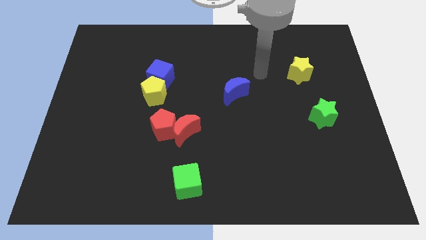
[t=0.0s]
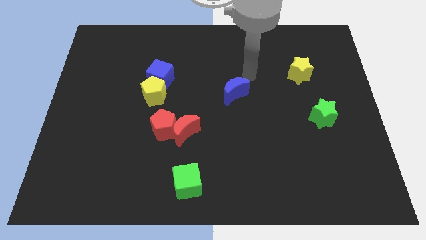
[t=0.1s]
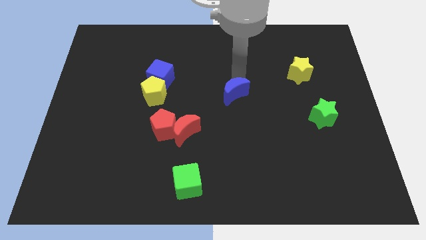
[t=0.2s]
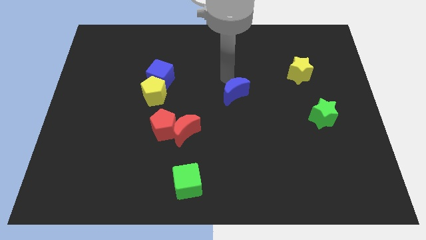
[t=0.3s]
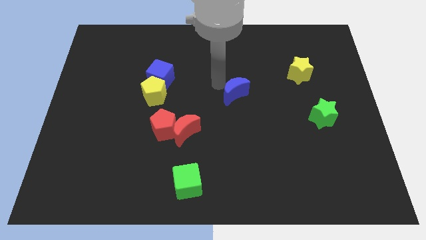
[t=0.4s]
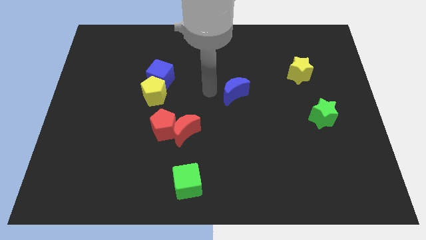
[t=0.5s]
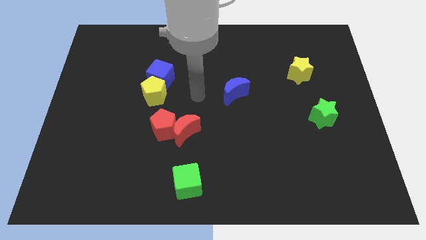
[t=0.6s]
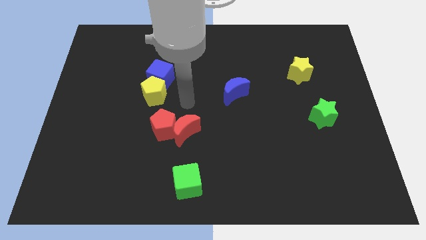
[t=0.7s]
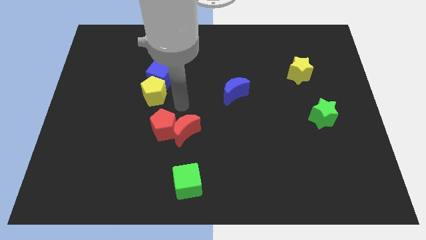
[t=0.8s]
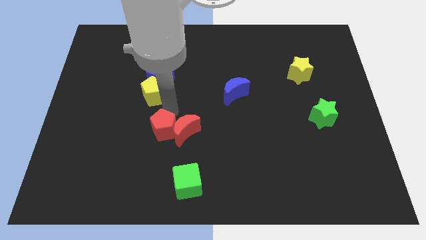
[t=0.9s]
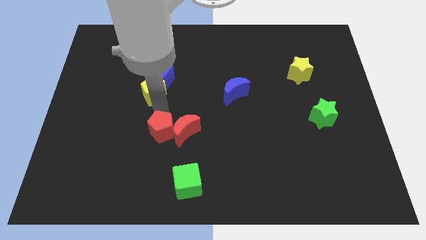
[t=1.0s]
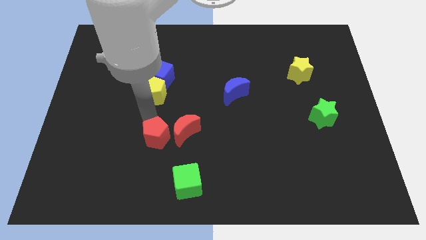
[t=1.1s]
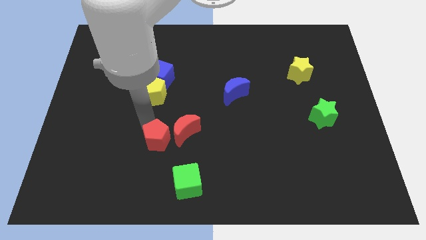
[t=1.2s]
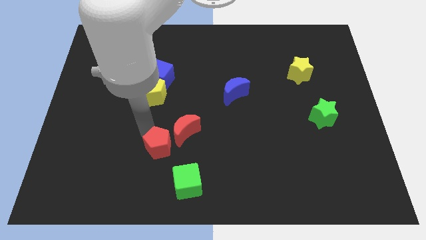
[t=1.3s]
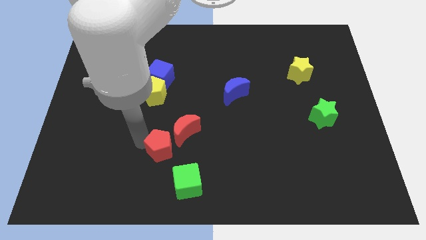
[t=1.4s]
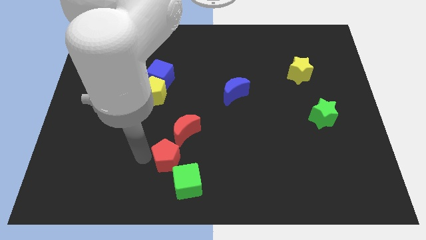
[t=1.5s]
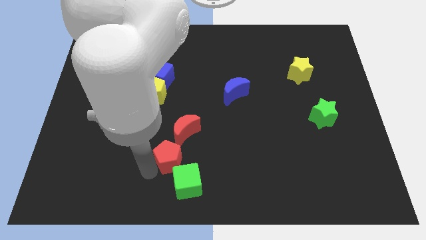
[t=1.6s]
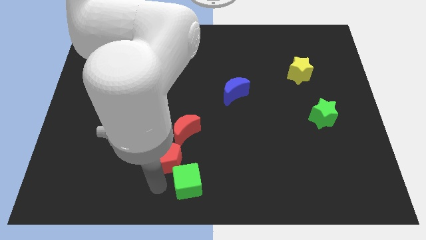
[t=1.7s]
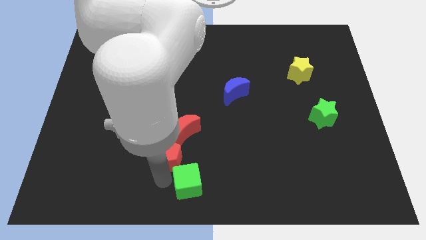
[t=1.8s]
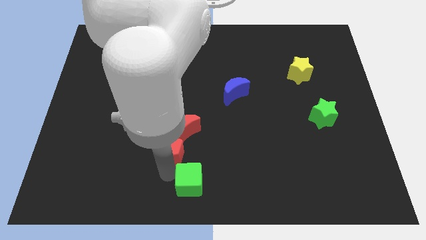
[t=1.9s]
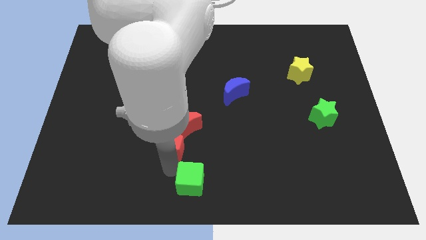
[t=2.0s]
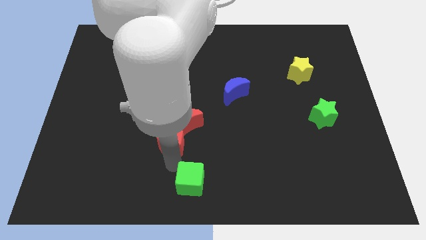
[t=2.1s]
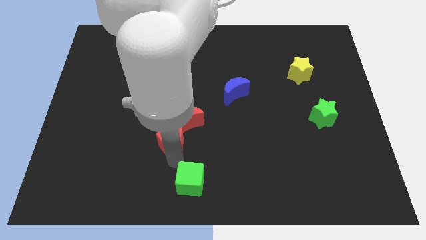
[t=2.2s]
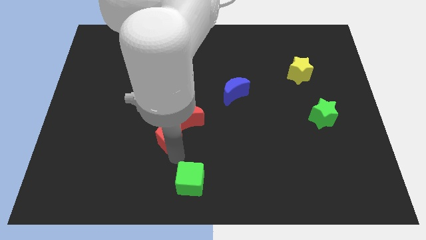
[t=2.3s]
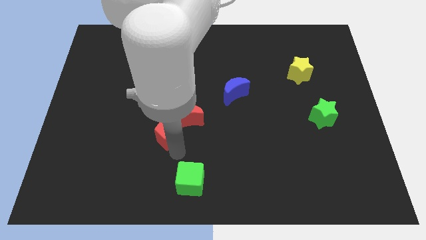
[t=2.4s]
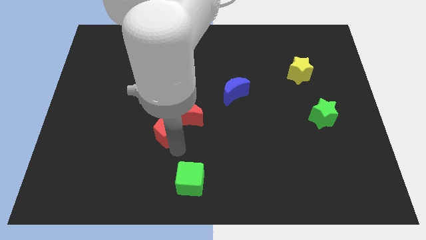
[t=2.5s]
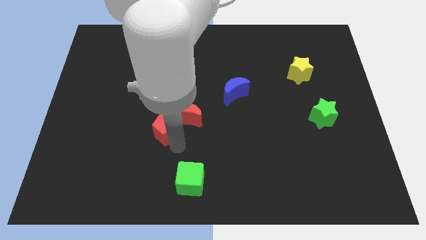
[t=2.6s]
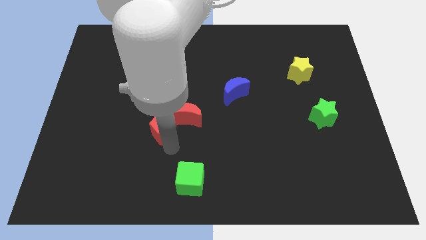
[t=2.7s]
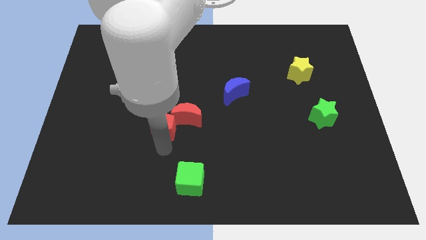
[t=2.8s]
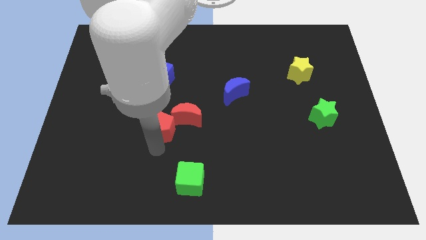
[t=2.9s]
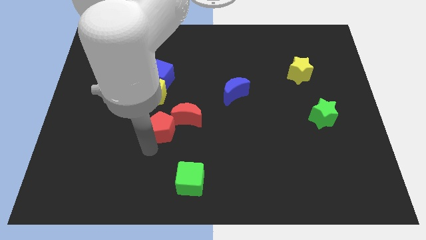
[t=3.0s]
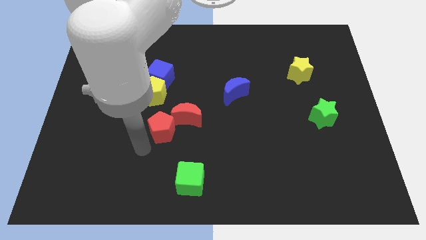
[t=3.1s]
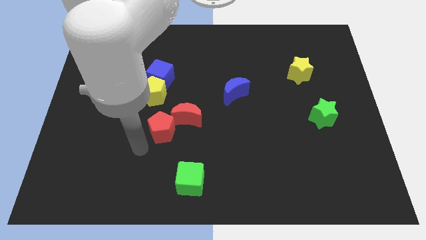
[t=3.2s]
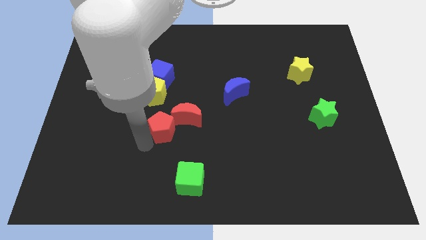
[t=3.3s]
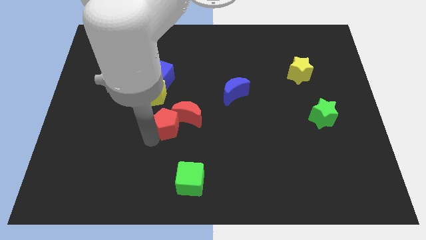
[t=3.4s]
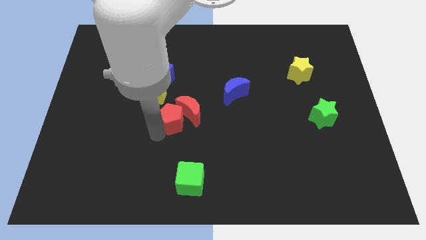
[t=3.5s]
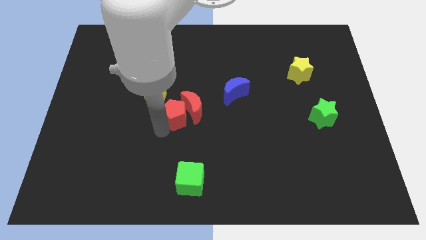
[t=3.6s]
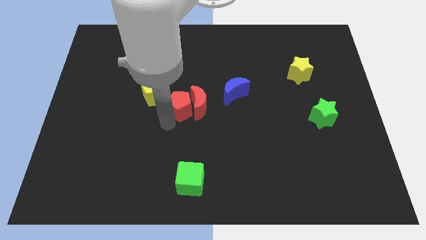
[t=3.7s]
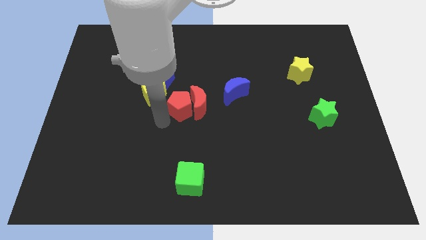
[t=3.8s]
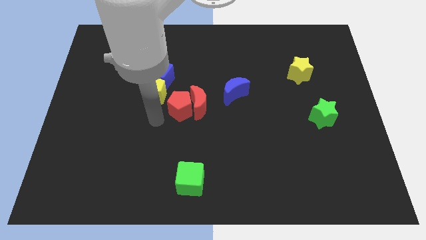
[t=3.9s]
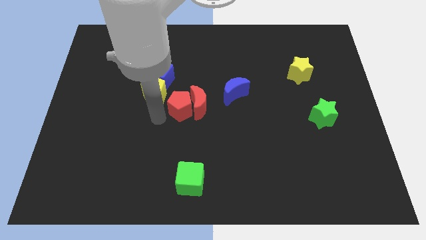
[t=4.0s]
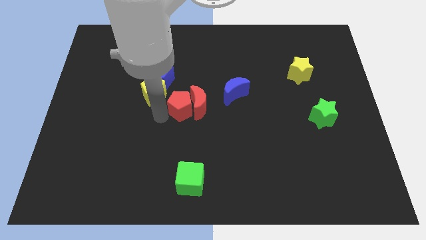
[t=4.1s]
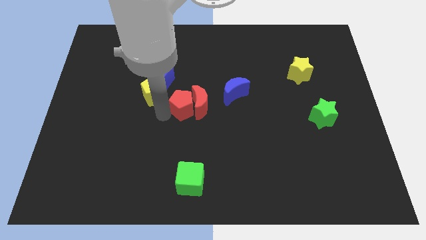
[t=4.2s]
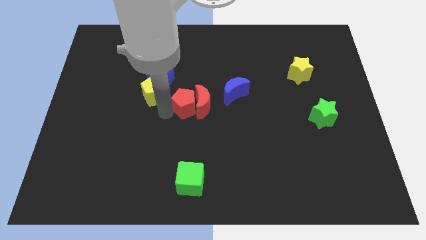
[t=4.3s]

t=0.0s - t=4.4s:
slightly move the red pentagon up and then right

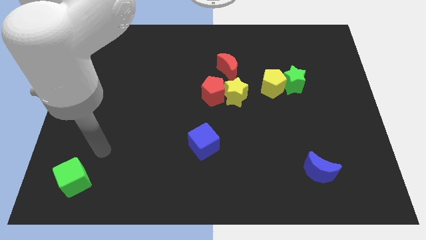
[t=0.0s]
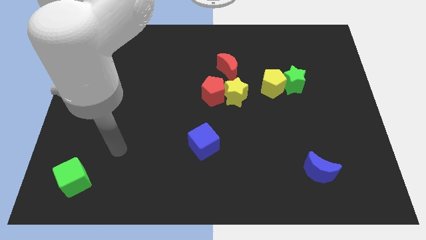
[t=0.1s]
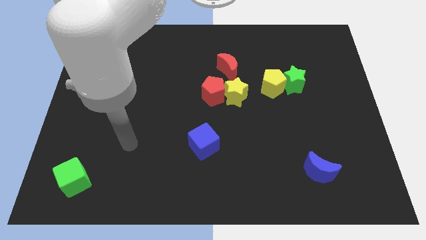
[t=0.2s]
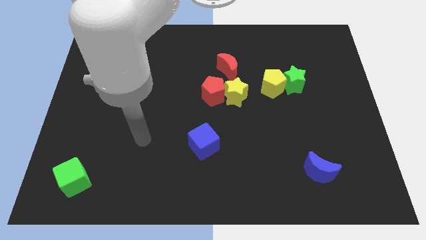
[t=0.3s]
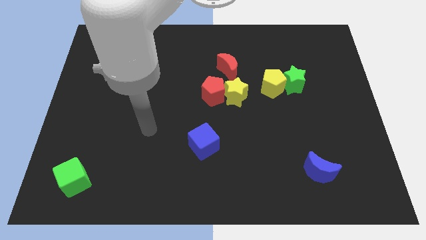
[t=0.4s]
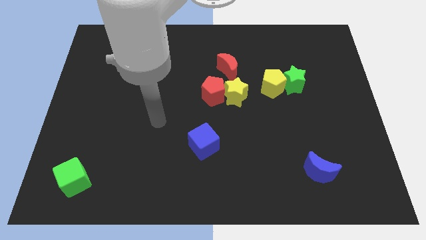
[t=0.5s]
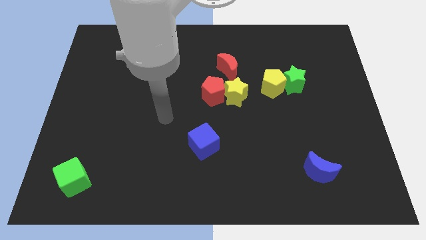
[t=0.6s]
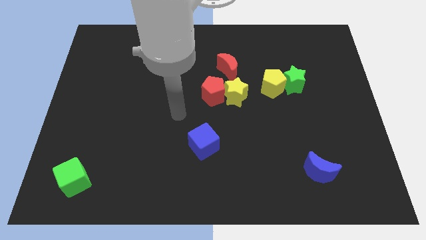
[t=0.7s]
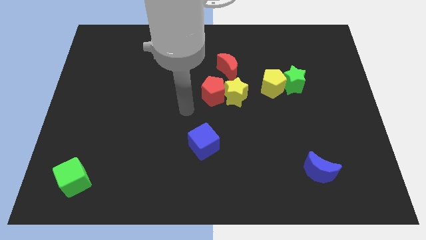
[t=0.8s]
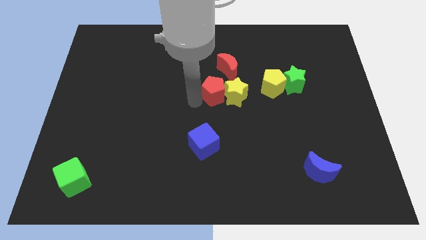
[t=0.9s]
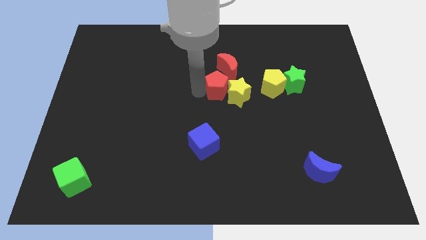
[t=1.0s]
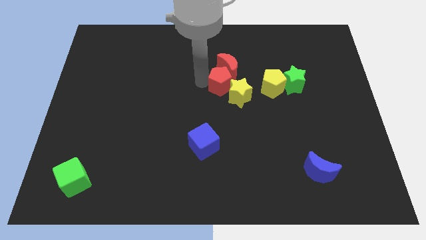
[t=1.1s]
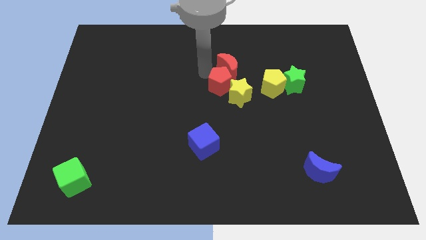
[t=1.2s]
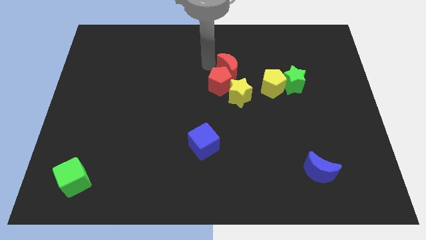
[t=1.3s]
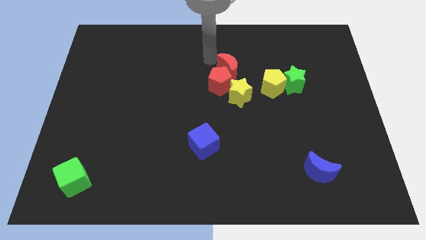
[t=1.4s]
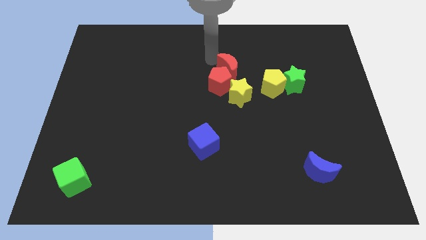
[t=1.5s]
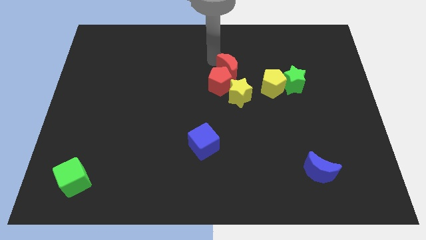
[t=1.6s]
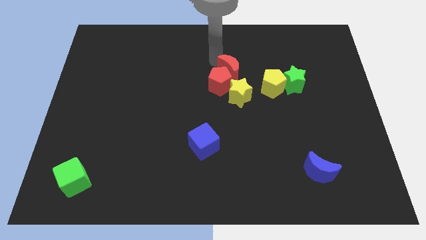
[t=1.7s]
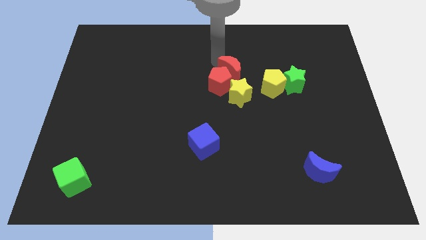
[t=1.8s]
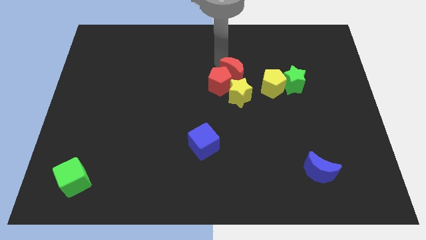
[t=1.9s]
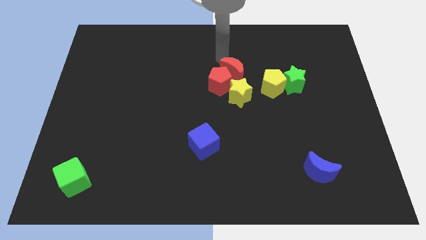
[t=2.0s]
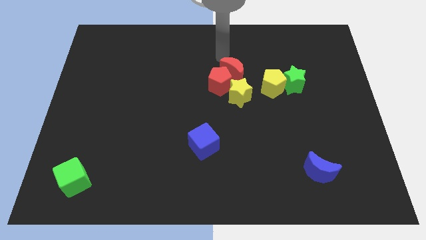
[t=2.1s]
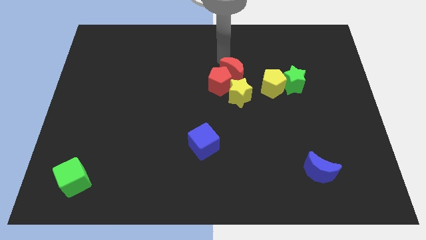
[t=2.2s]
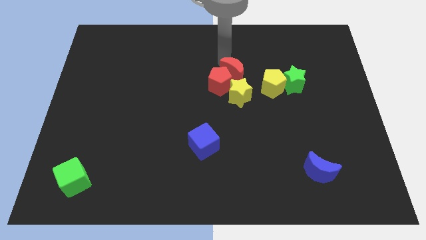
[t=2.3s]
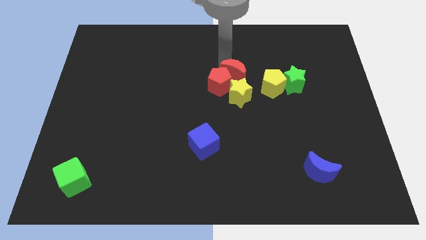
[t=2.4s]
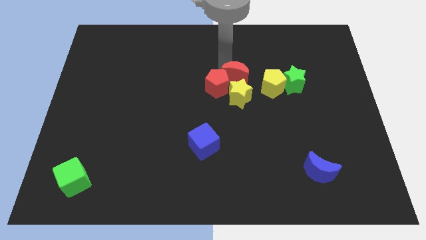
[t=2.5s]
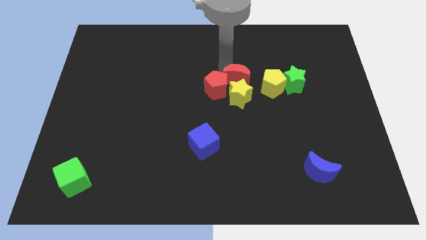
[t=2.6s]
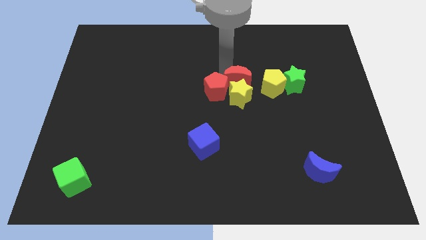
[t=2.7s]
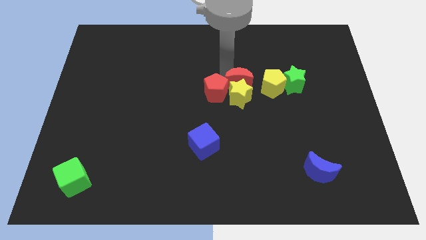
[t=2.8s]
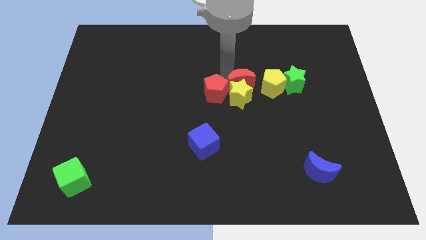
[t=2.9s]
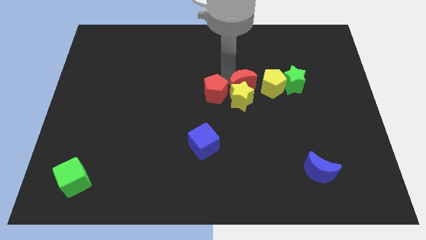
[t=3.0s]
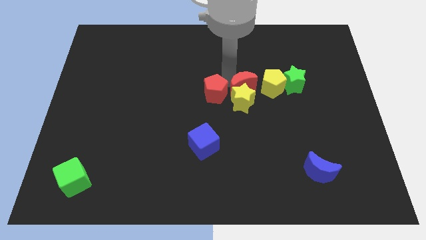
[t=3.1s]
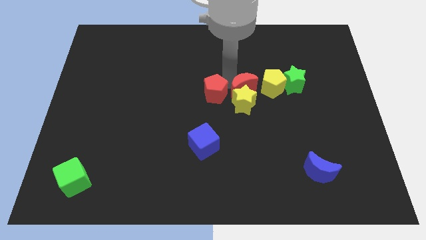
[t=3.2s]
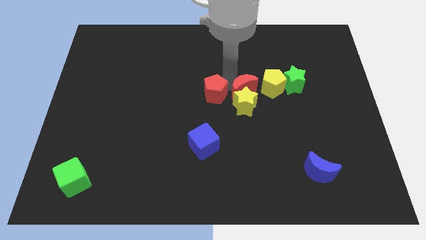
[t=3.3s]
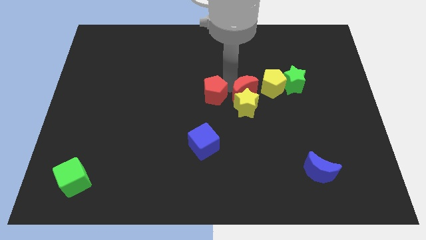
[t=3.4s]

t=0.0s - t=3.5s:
move the red moon a little bit downwards
